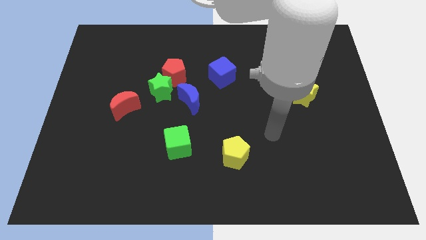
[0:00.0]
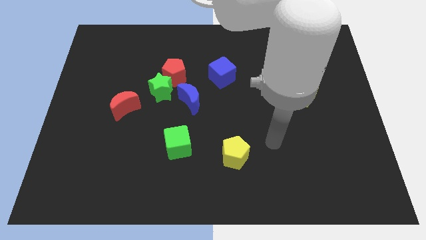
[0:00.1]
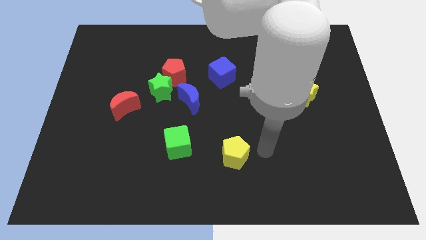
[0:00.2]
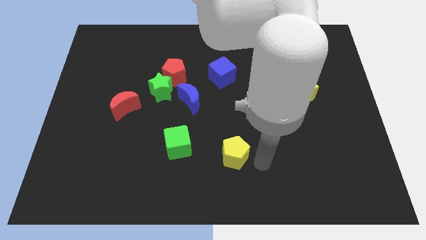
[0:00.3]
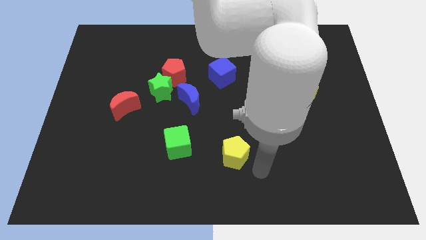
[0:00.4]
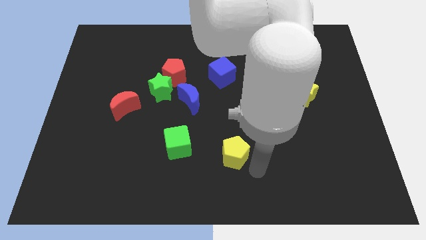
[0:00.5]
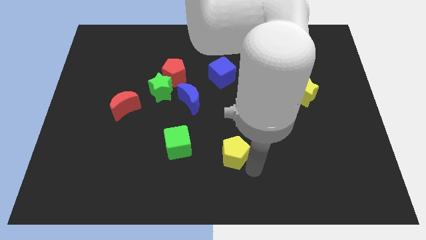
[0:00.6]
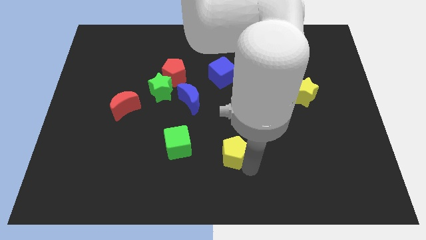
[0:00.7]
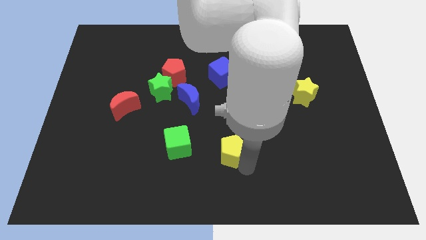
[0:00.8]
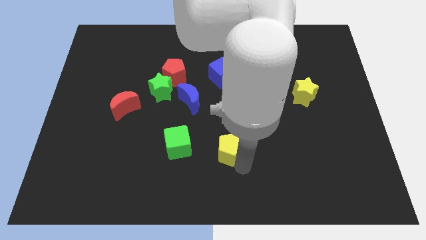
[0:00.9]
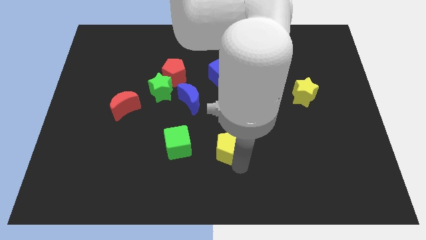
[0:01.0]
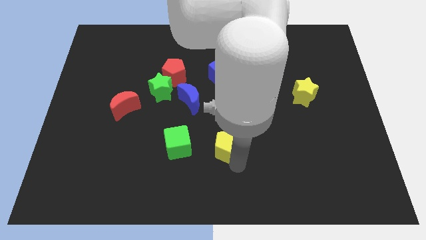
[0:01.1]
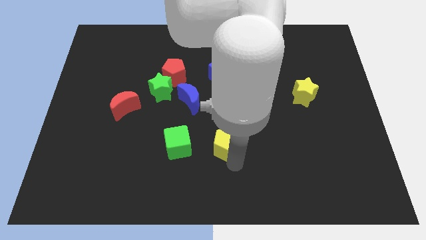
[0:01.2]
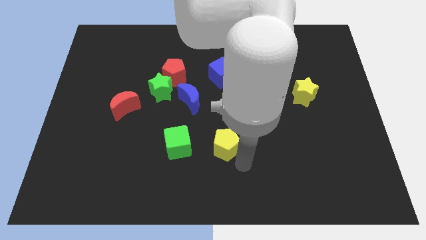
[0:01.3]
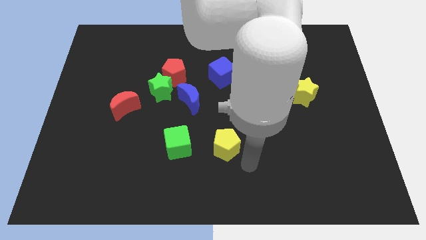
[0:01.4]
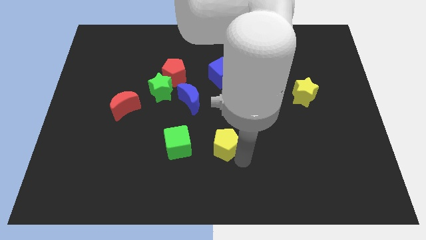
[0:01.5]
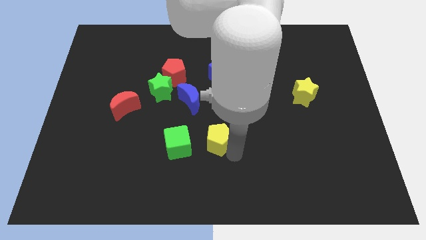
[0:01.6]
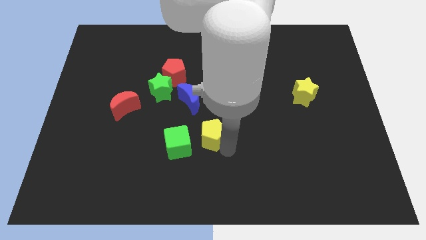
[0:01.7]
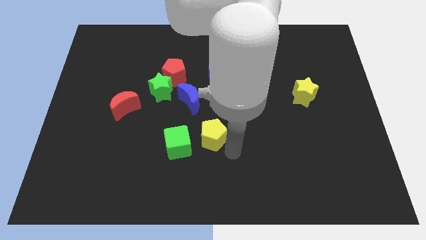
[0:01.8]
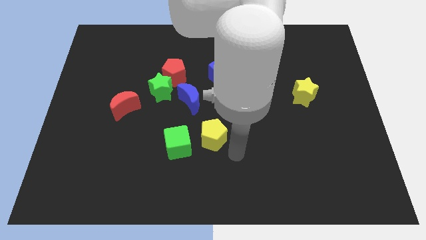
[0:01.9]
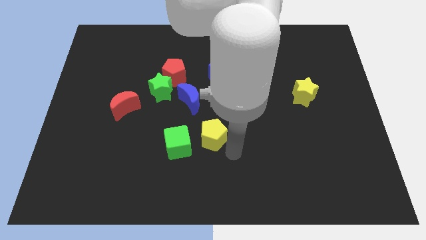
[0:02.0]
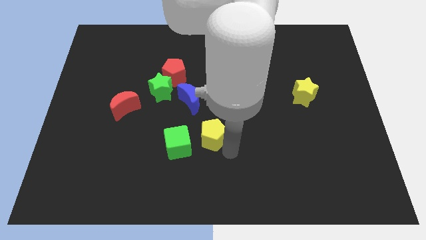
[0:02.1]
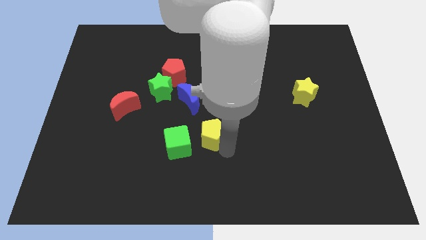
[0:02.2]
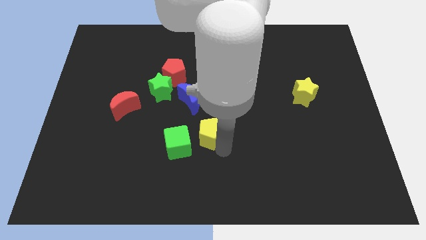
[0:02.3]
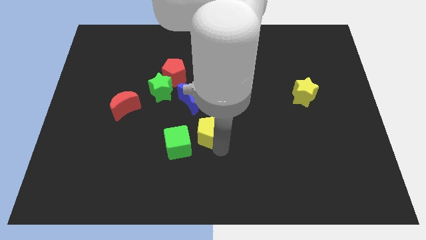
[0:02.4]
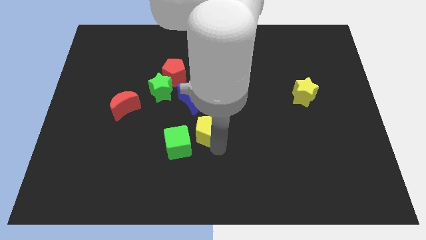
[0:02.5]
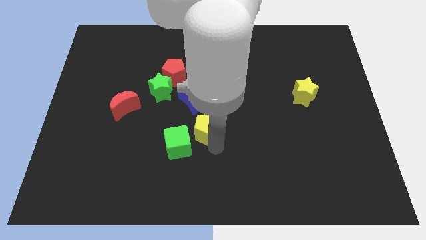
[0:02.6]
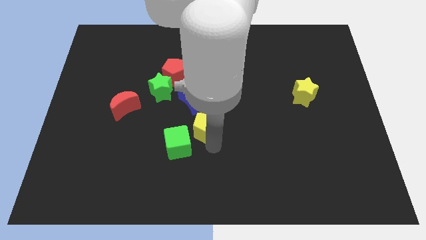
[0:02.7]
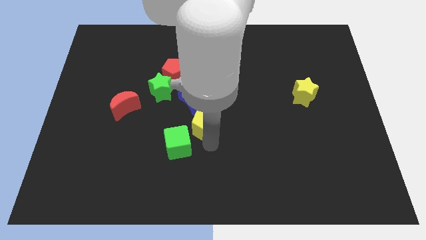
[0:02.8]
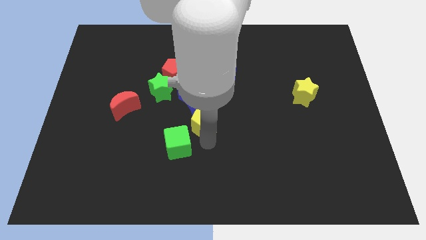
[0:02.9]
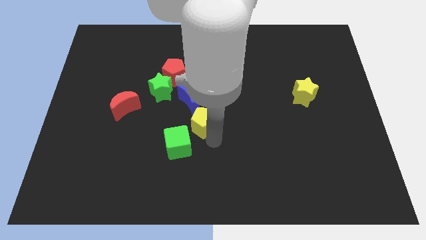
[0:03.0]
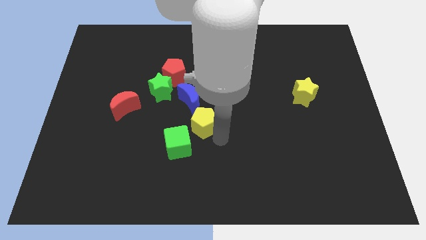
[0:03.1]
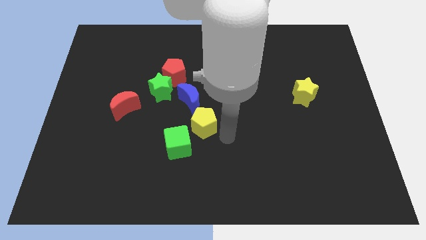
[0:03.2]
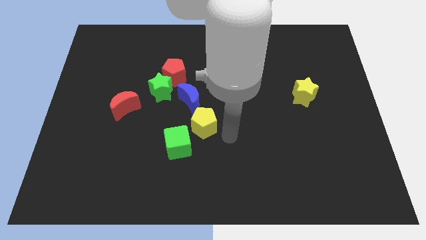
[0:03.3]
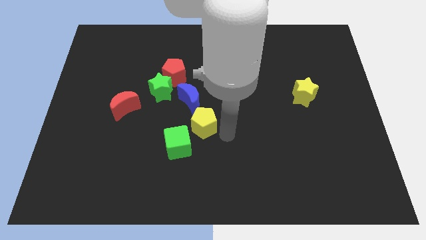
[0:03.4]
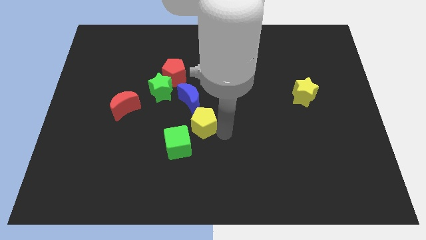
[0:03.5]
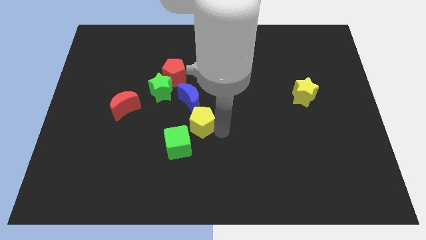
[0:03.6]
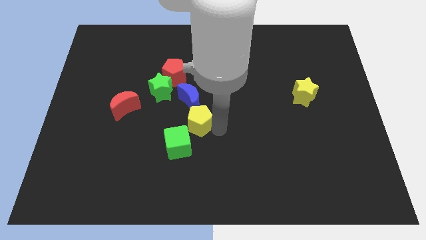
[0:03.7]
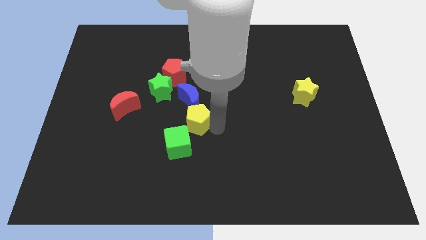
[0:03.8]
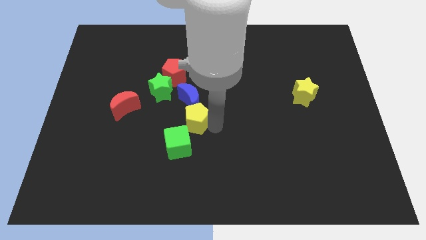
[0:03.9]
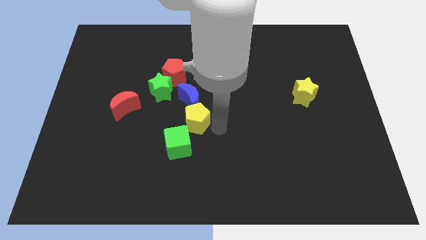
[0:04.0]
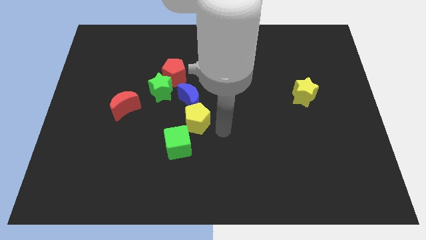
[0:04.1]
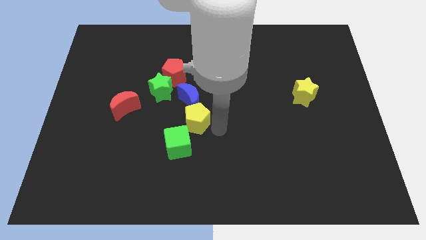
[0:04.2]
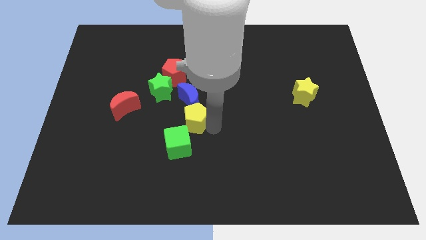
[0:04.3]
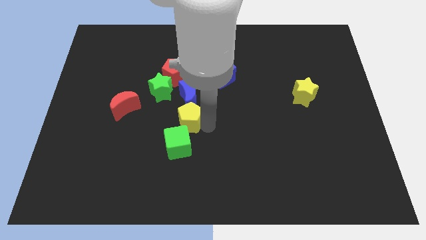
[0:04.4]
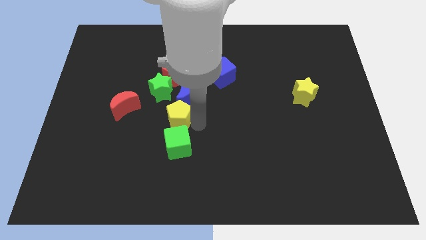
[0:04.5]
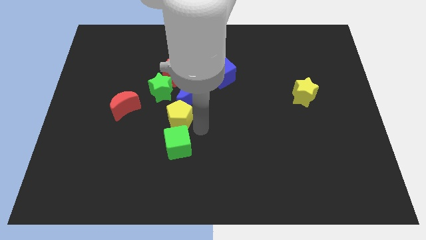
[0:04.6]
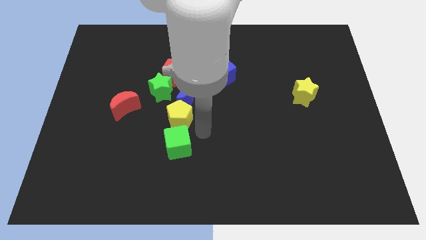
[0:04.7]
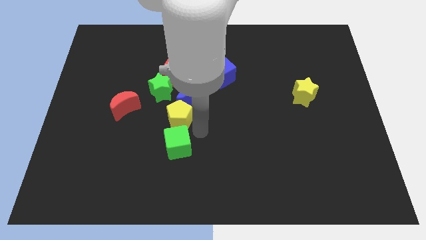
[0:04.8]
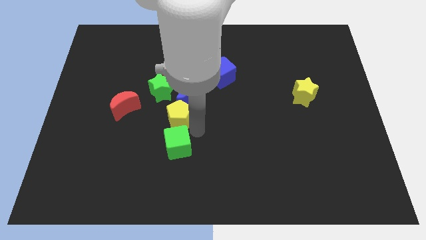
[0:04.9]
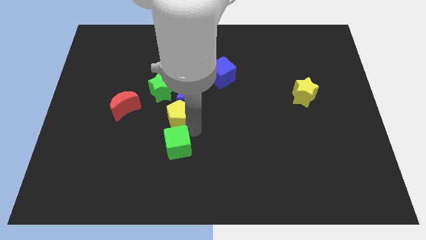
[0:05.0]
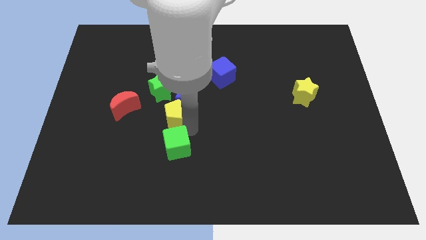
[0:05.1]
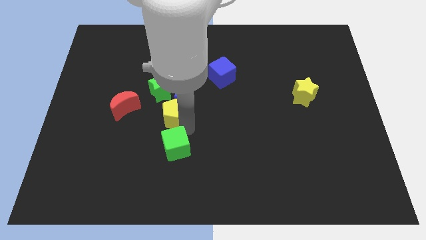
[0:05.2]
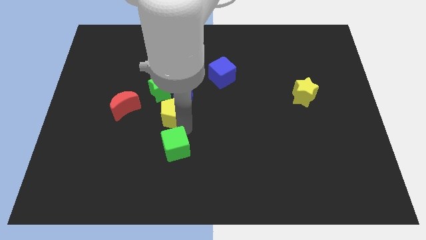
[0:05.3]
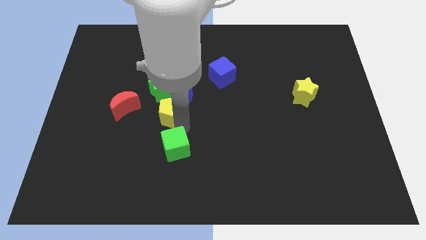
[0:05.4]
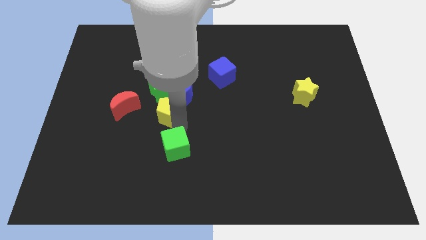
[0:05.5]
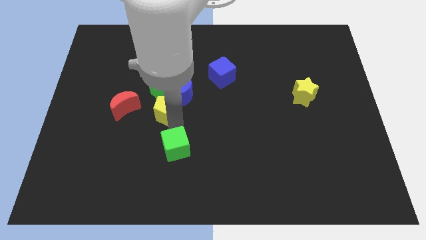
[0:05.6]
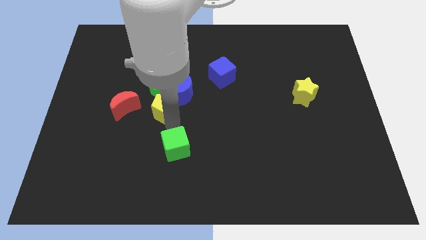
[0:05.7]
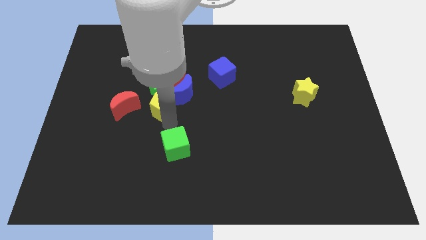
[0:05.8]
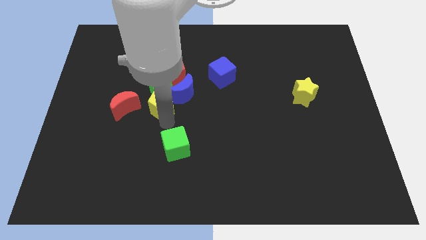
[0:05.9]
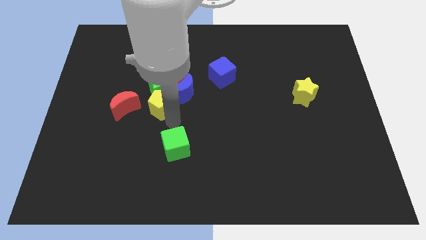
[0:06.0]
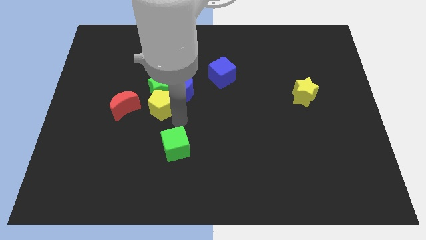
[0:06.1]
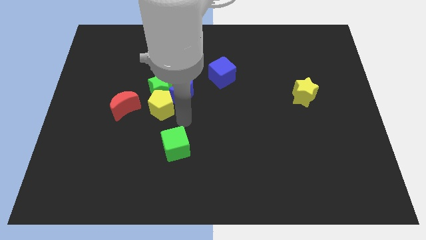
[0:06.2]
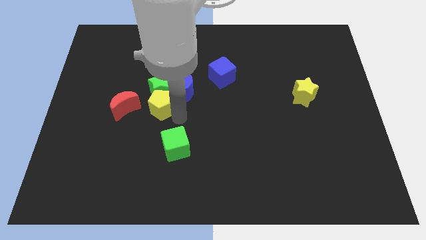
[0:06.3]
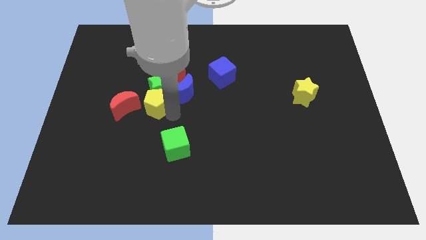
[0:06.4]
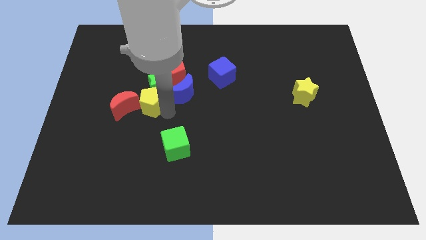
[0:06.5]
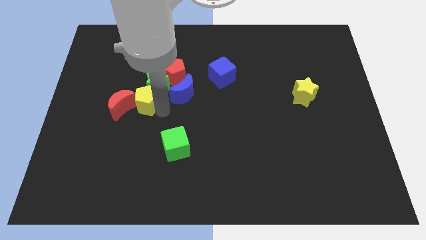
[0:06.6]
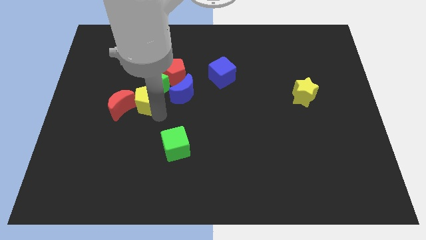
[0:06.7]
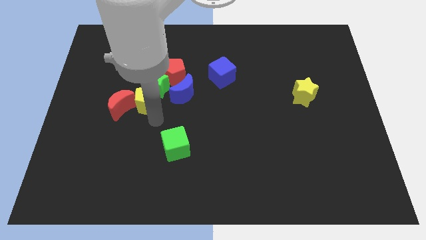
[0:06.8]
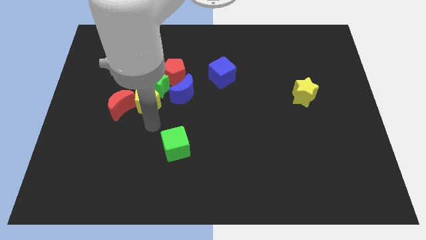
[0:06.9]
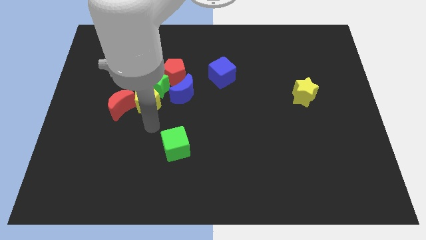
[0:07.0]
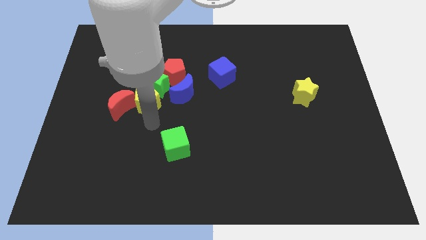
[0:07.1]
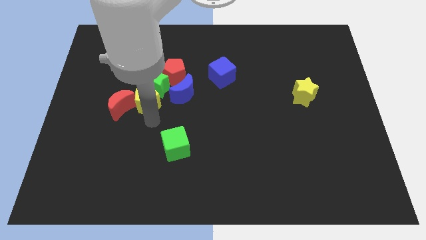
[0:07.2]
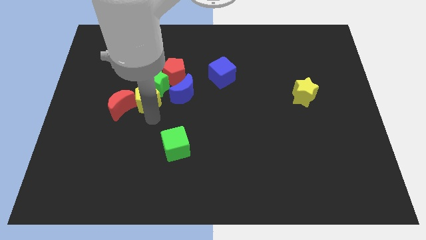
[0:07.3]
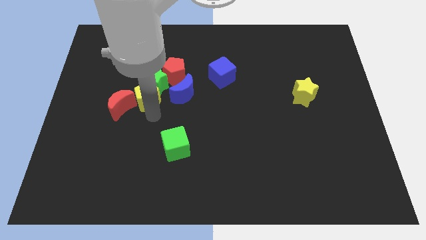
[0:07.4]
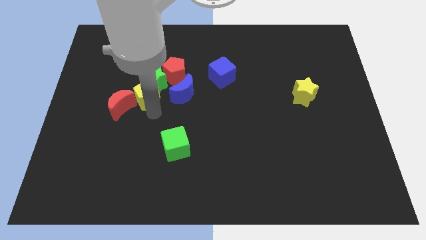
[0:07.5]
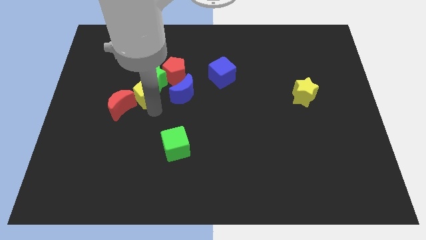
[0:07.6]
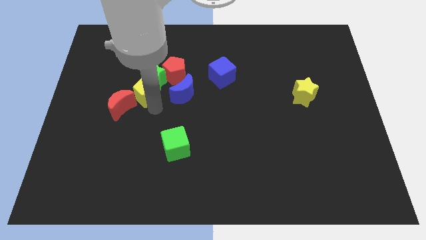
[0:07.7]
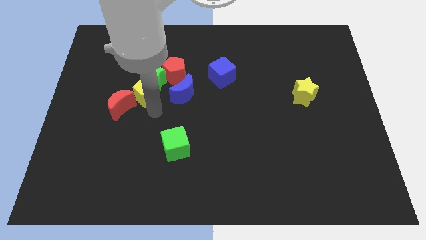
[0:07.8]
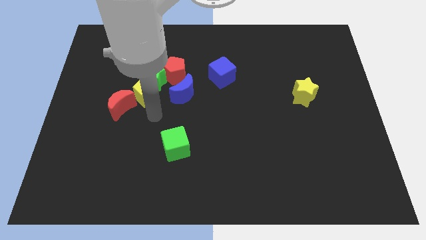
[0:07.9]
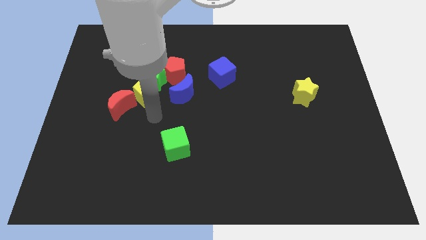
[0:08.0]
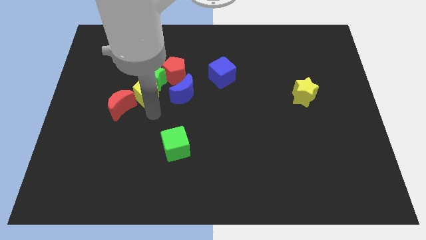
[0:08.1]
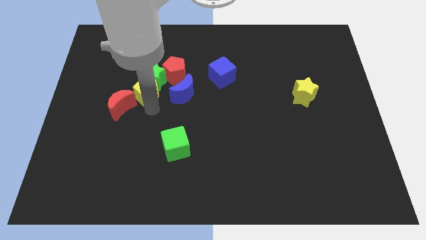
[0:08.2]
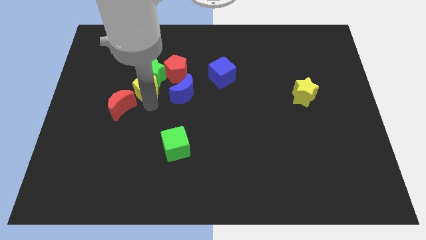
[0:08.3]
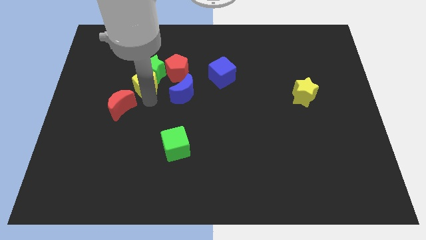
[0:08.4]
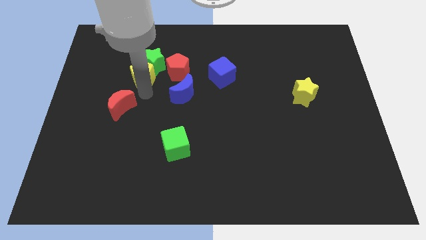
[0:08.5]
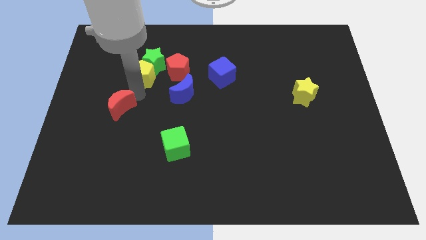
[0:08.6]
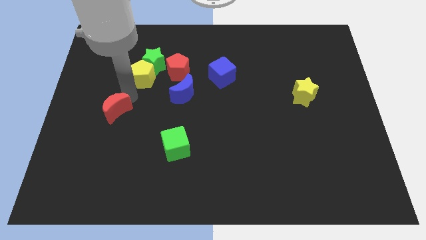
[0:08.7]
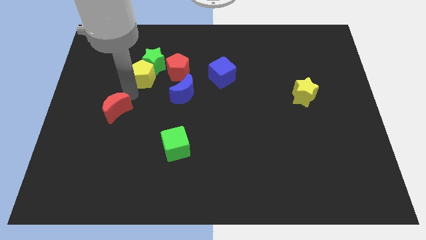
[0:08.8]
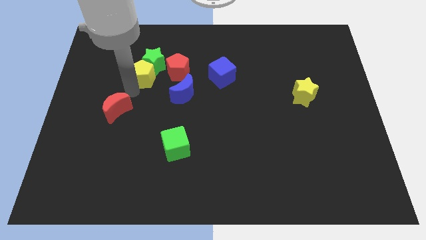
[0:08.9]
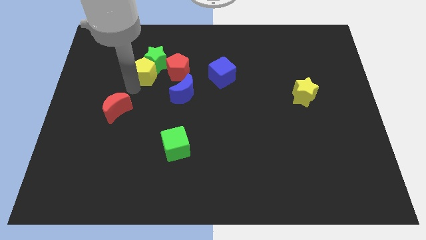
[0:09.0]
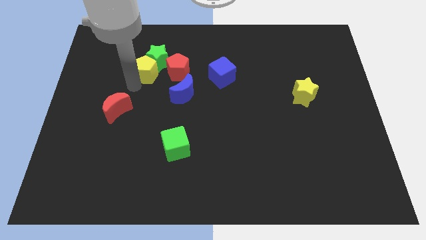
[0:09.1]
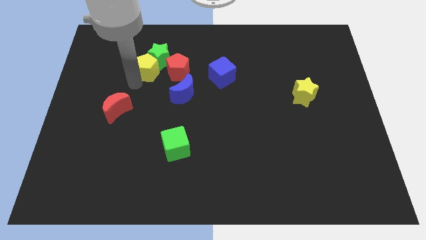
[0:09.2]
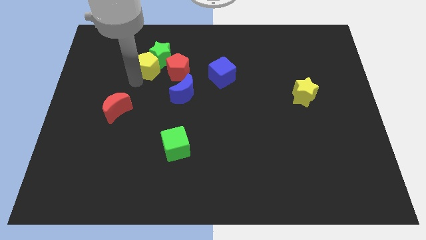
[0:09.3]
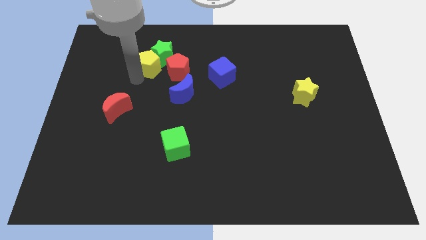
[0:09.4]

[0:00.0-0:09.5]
push the yellow pentagon to the top left side of the red pentagon
